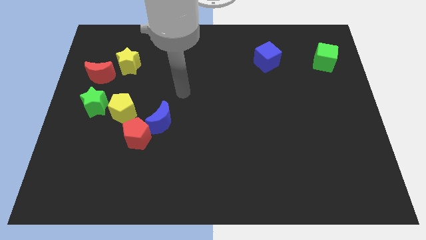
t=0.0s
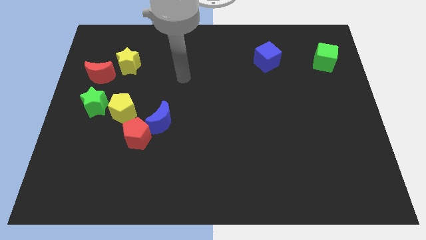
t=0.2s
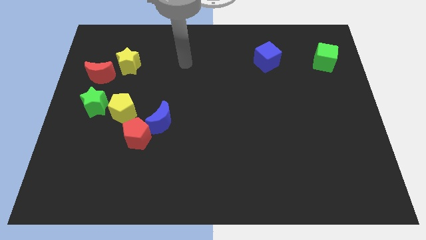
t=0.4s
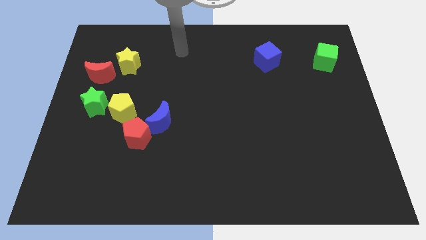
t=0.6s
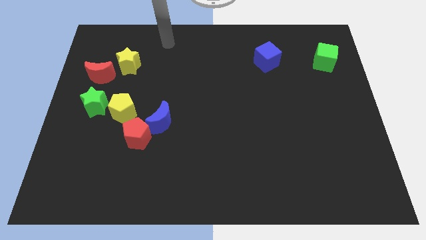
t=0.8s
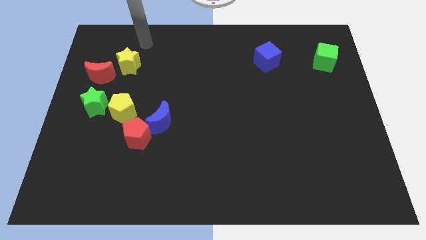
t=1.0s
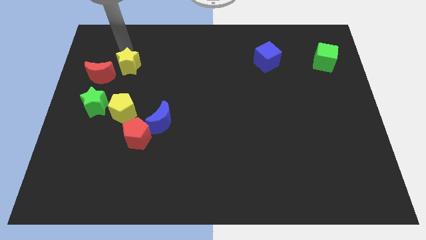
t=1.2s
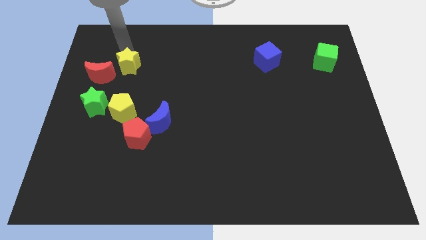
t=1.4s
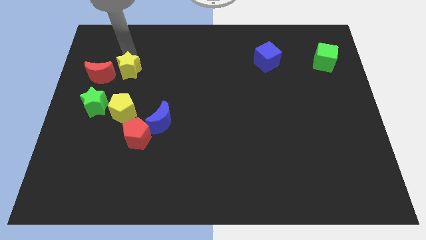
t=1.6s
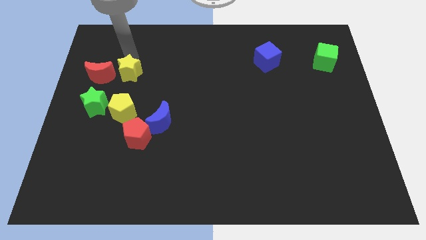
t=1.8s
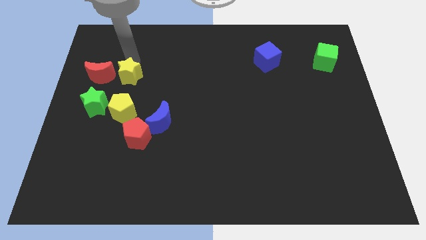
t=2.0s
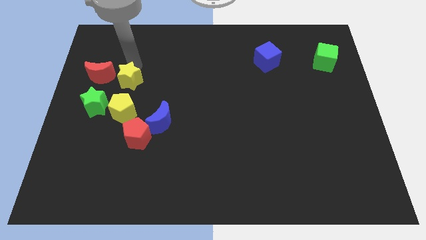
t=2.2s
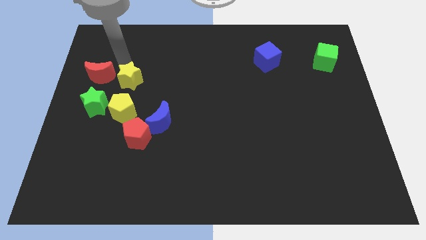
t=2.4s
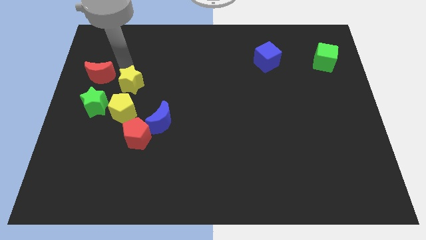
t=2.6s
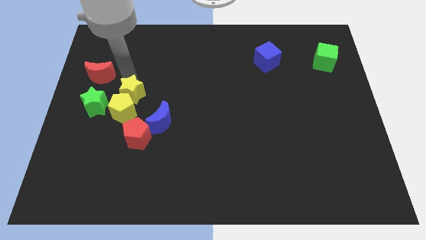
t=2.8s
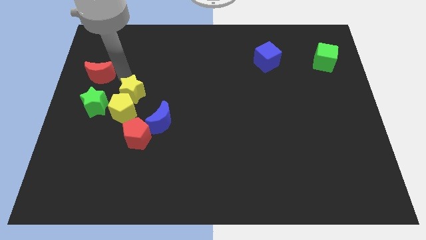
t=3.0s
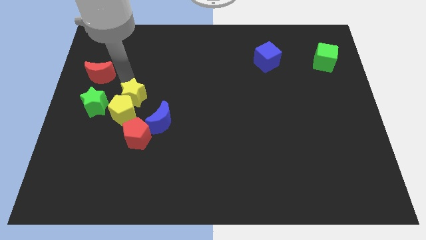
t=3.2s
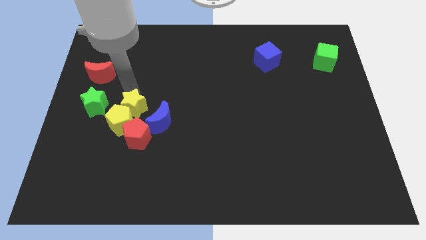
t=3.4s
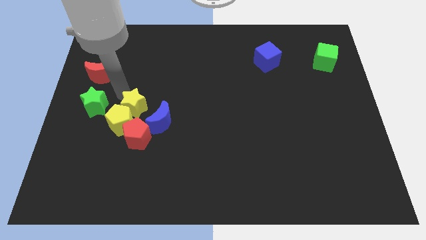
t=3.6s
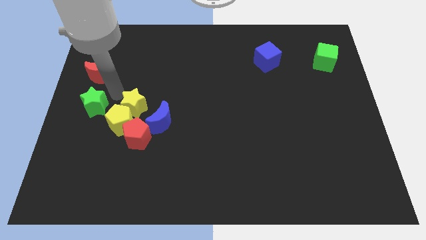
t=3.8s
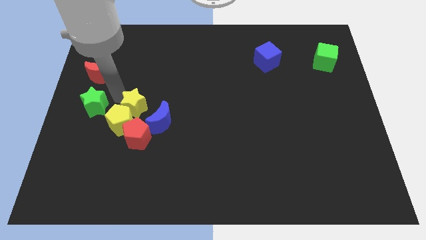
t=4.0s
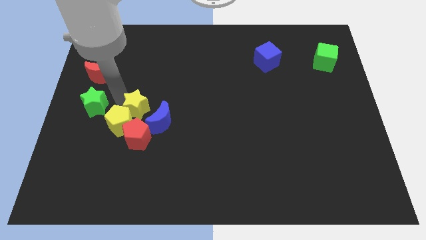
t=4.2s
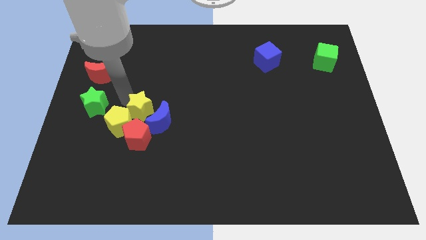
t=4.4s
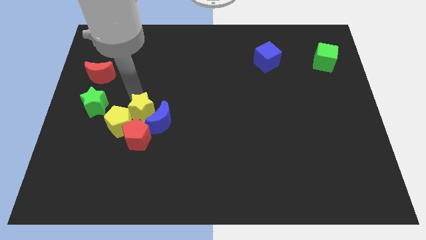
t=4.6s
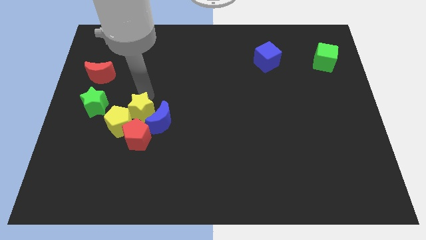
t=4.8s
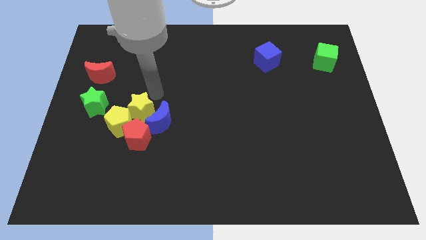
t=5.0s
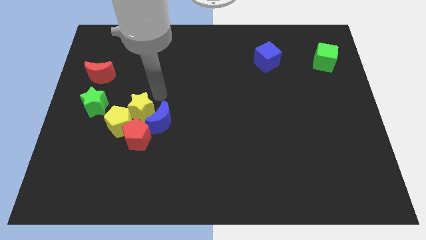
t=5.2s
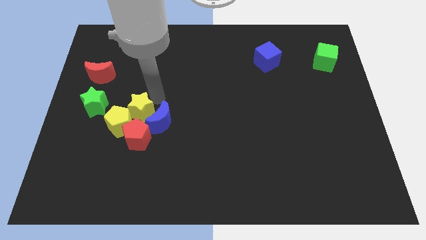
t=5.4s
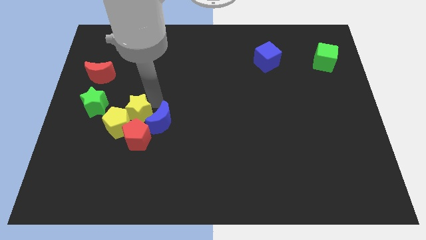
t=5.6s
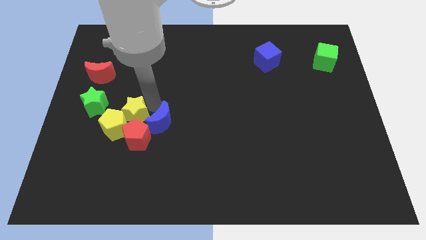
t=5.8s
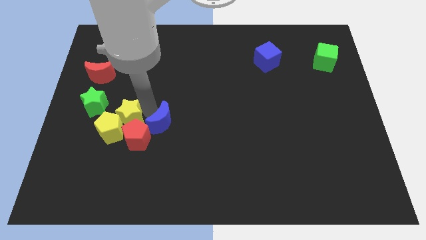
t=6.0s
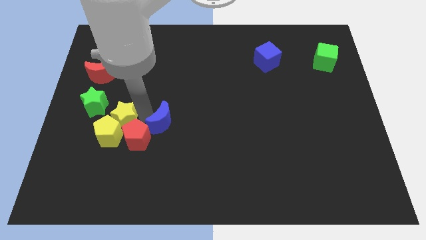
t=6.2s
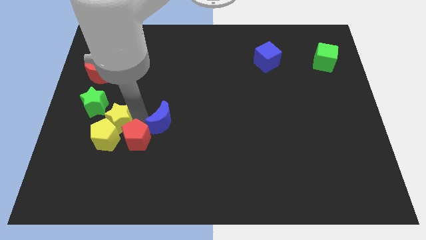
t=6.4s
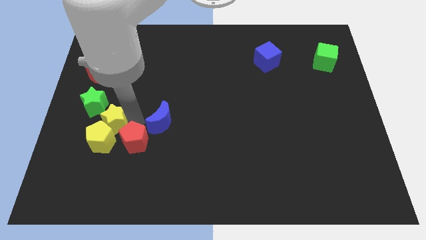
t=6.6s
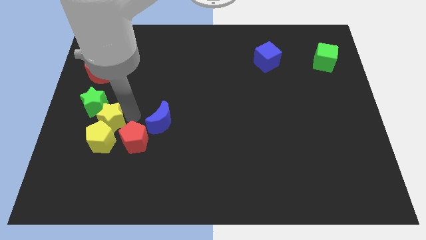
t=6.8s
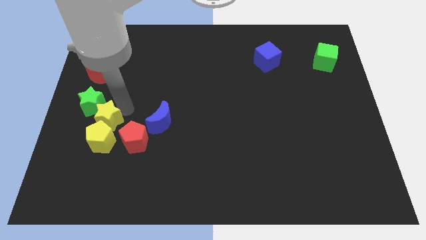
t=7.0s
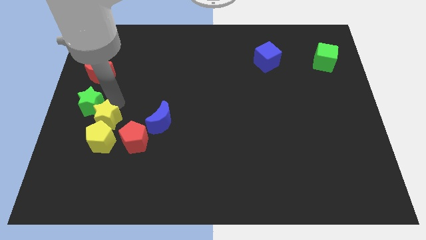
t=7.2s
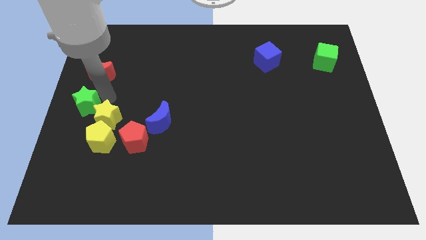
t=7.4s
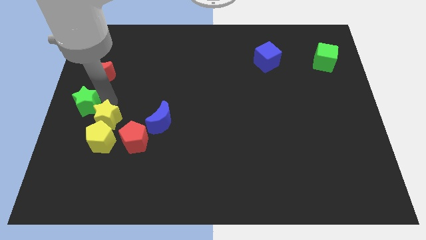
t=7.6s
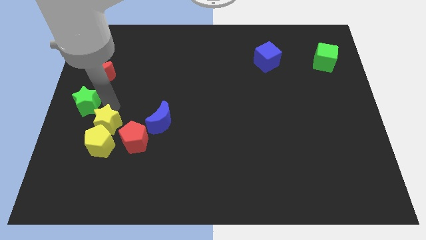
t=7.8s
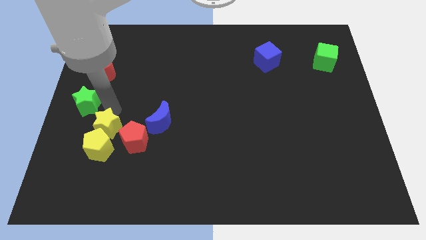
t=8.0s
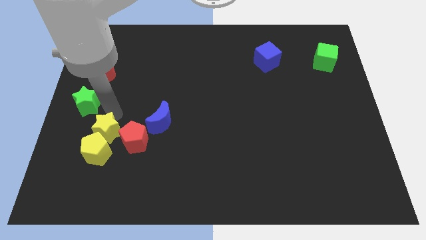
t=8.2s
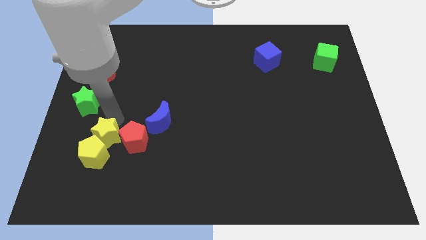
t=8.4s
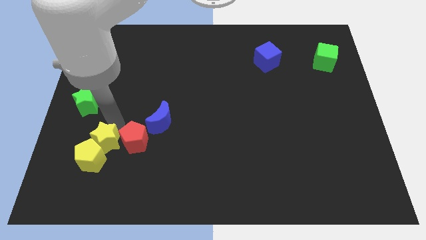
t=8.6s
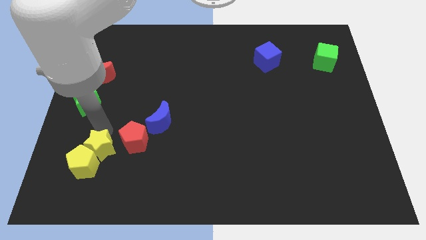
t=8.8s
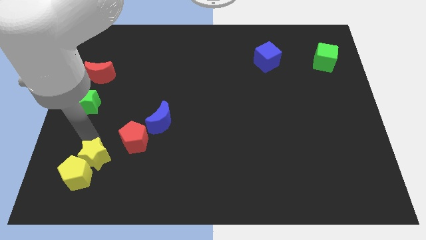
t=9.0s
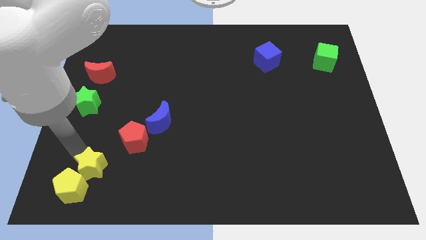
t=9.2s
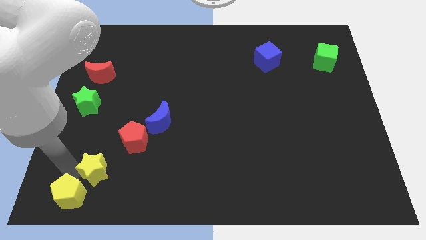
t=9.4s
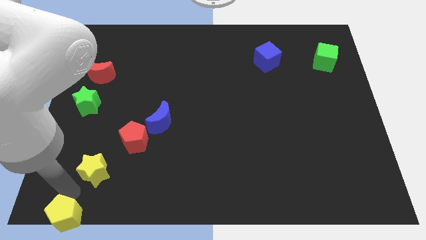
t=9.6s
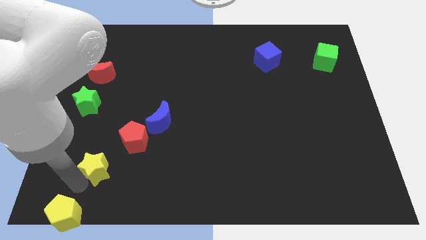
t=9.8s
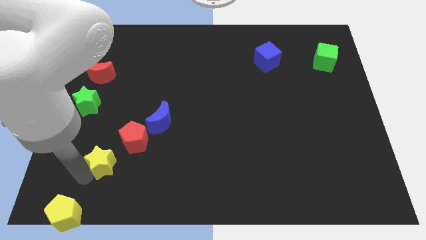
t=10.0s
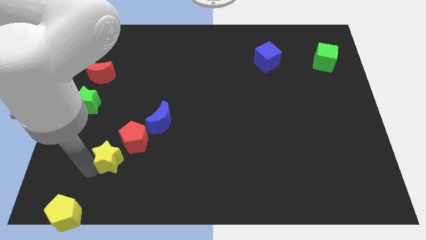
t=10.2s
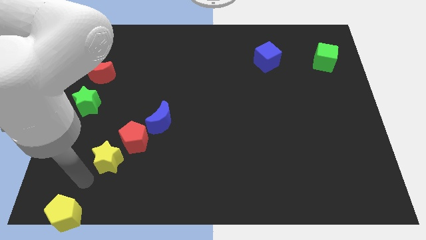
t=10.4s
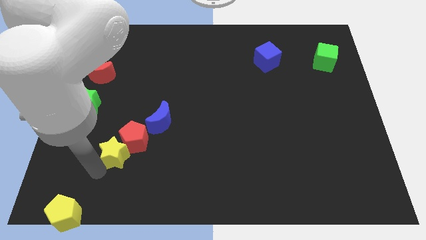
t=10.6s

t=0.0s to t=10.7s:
push the yellow star diagonally down and to the left of the blue moon

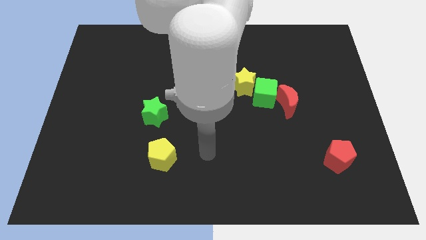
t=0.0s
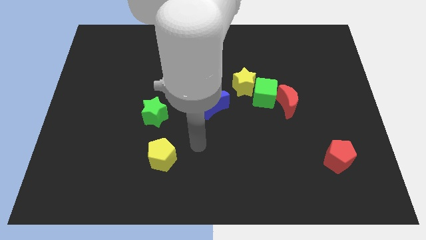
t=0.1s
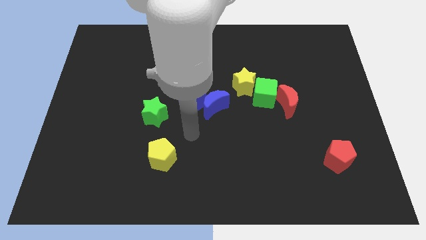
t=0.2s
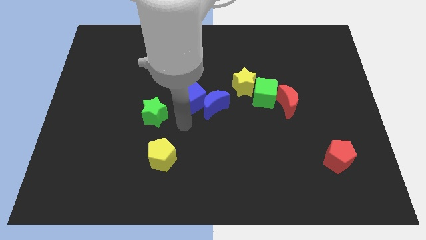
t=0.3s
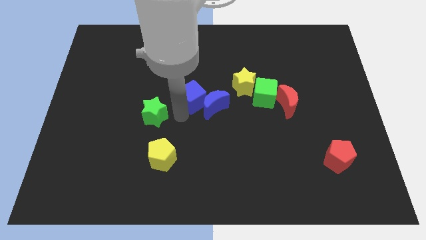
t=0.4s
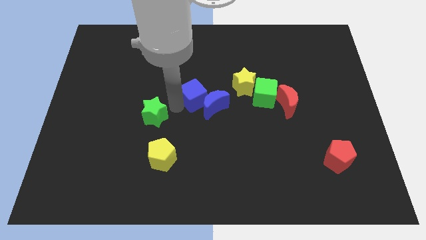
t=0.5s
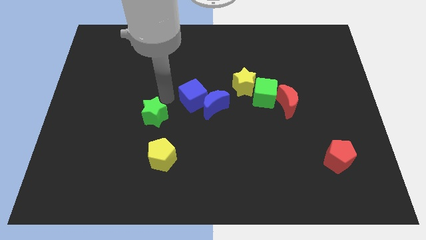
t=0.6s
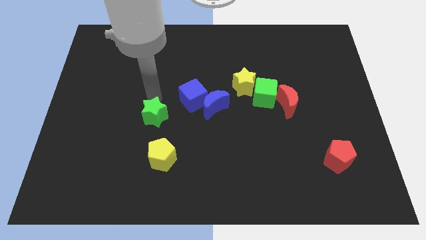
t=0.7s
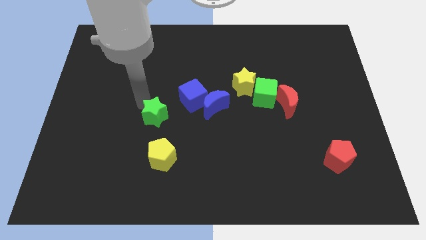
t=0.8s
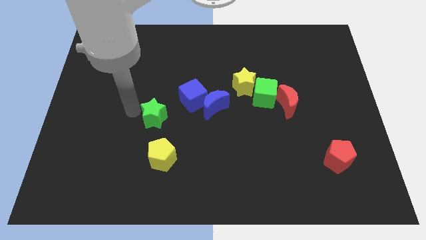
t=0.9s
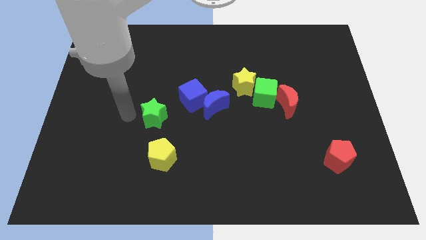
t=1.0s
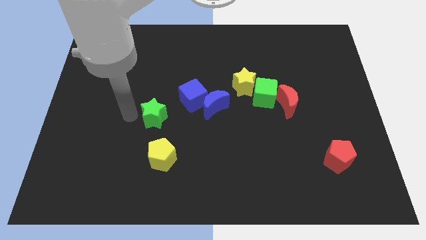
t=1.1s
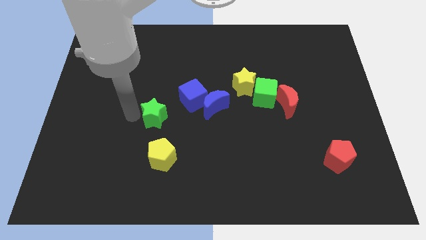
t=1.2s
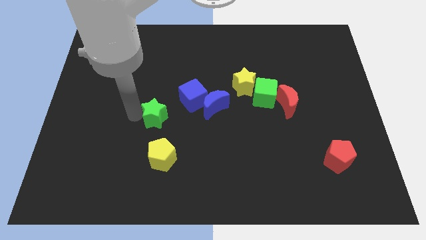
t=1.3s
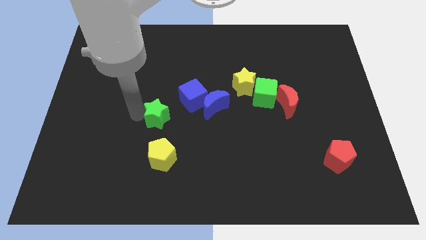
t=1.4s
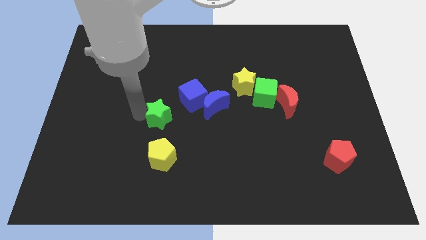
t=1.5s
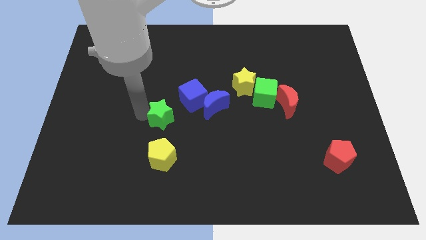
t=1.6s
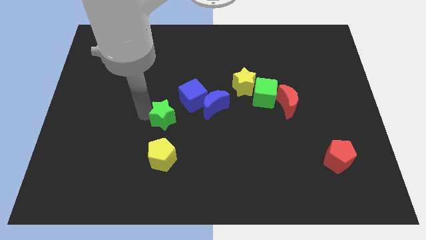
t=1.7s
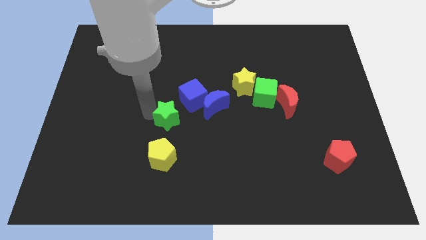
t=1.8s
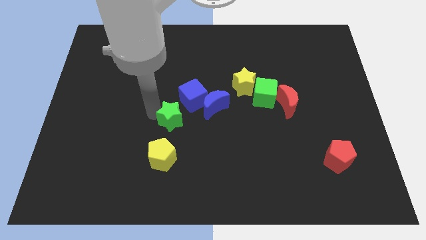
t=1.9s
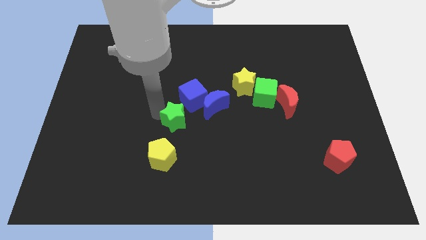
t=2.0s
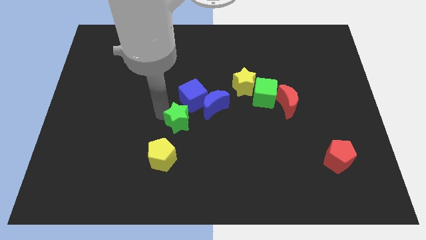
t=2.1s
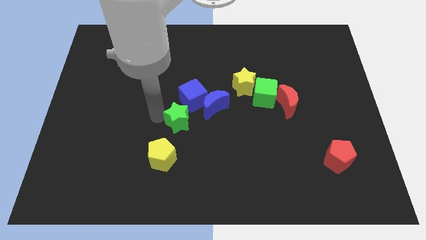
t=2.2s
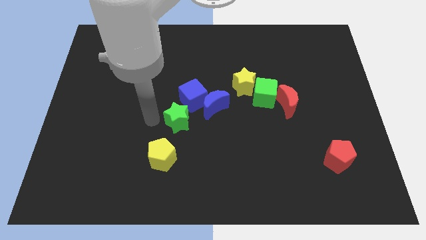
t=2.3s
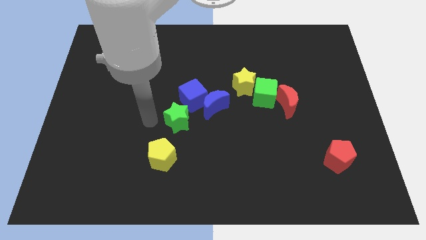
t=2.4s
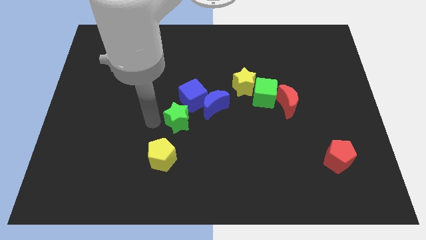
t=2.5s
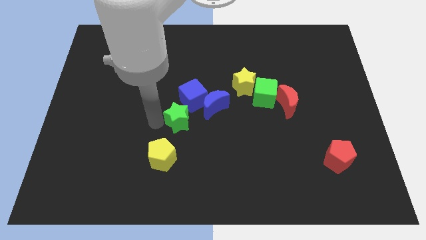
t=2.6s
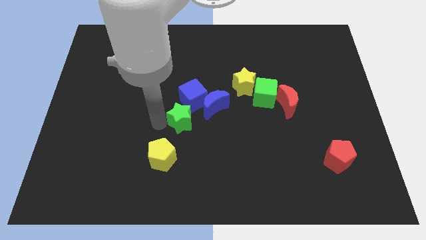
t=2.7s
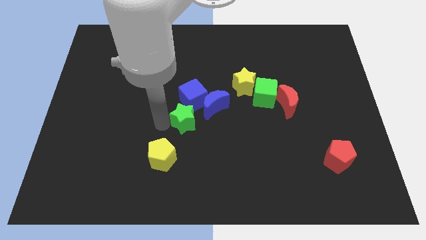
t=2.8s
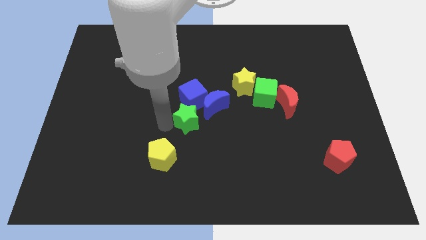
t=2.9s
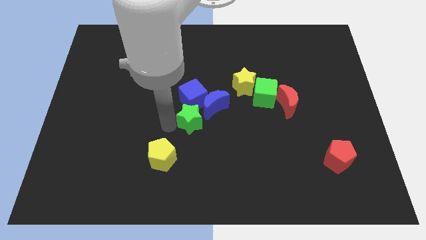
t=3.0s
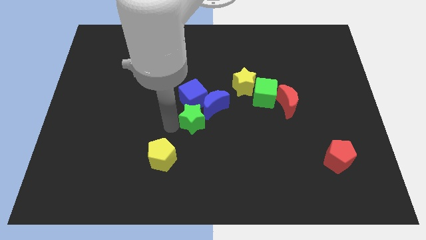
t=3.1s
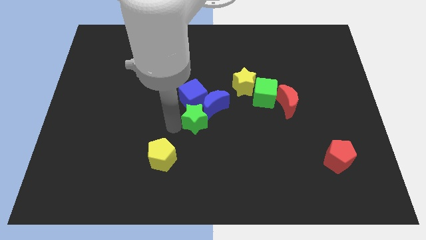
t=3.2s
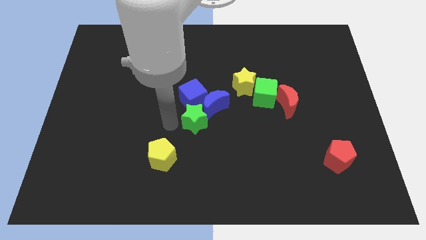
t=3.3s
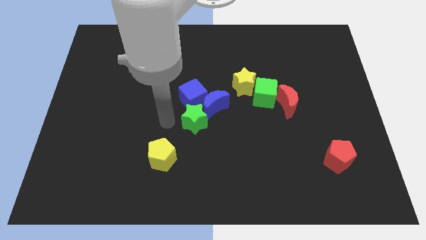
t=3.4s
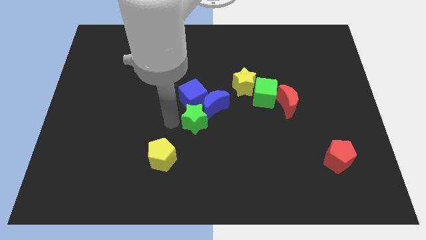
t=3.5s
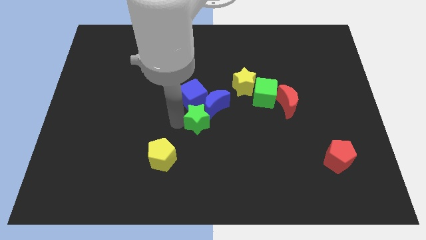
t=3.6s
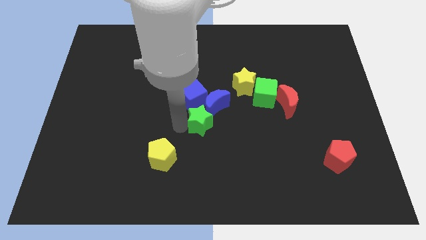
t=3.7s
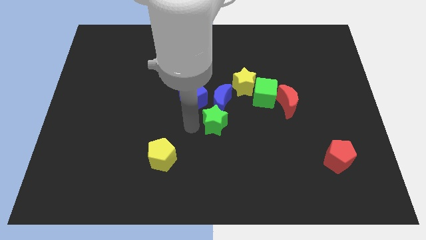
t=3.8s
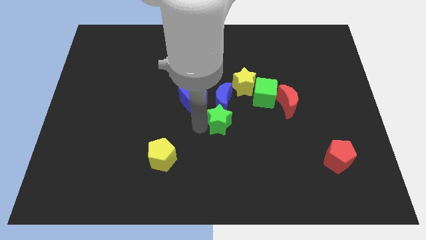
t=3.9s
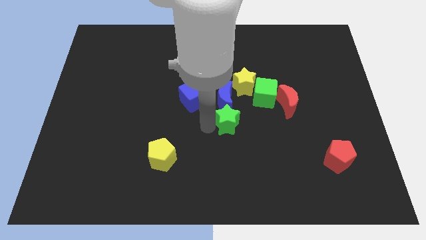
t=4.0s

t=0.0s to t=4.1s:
move the green star diagonally down and to the left of the green cube
